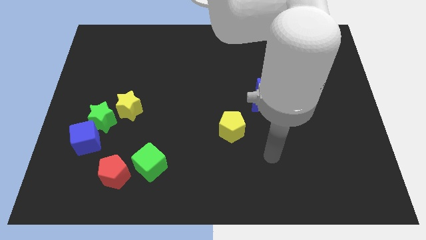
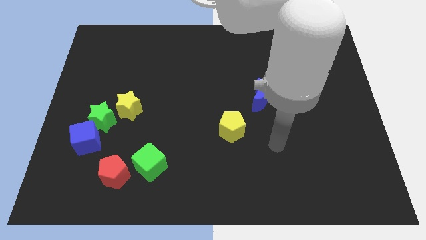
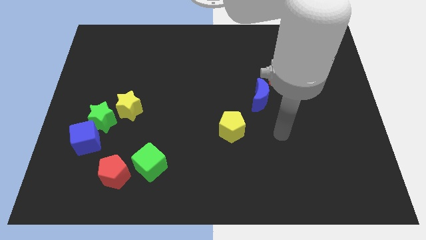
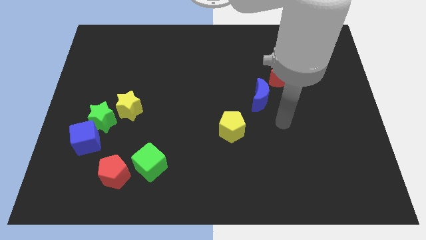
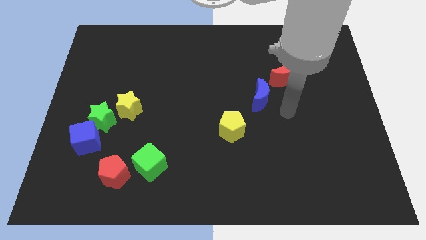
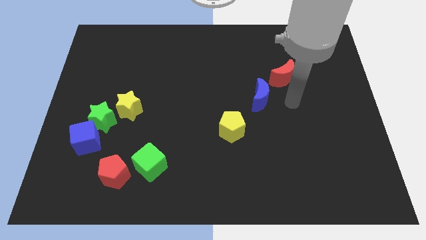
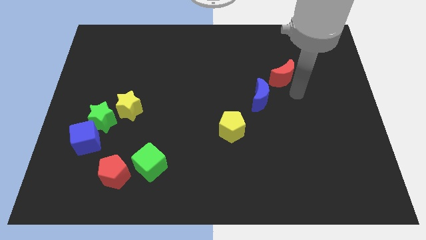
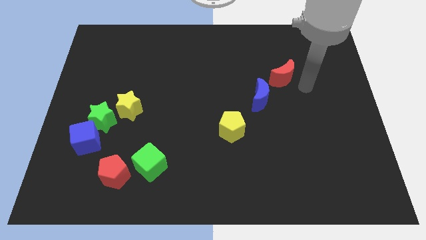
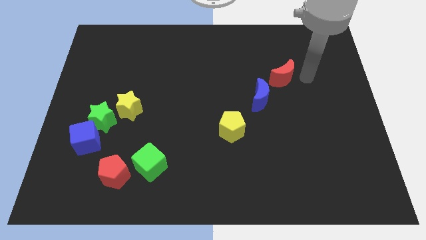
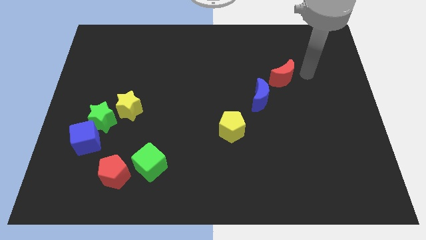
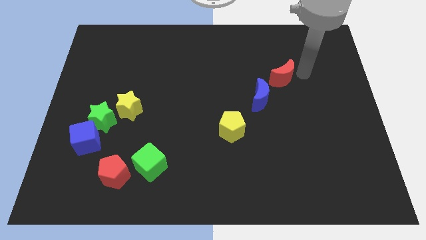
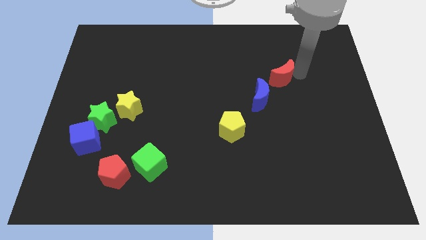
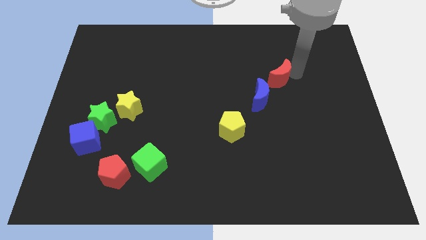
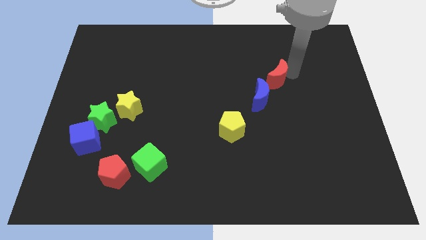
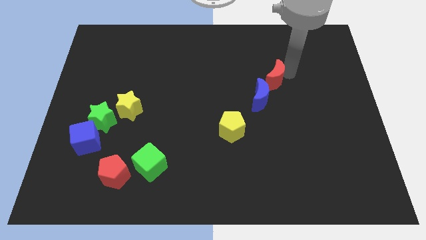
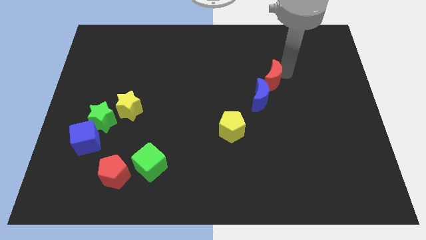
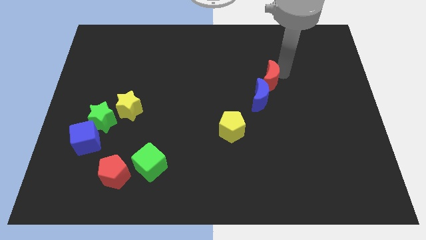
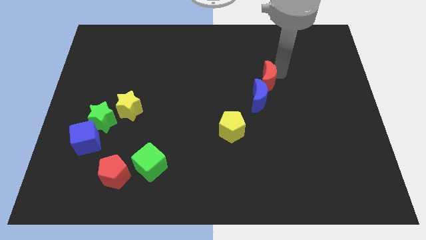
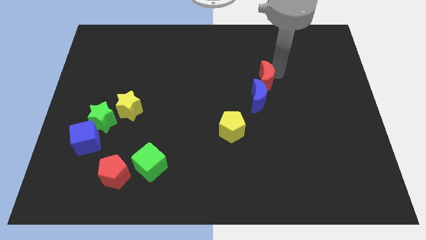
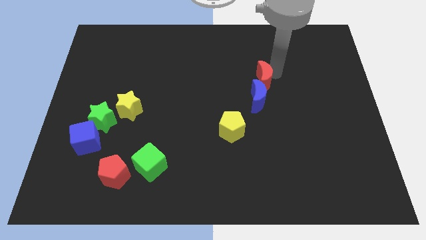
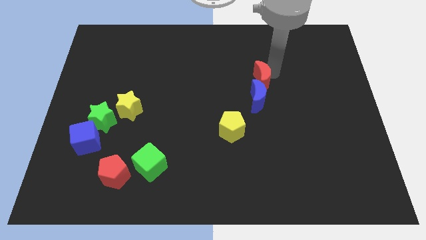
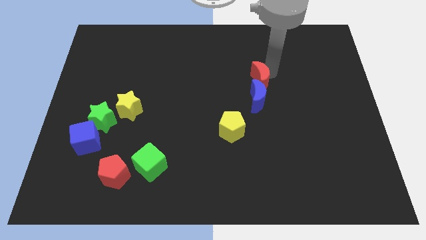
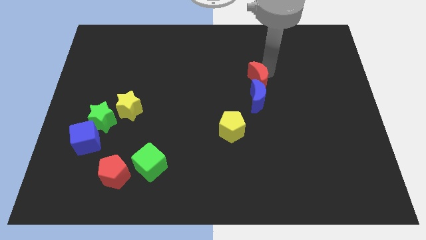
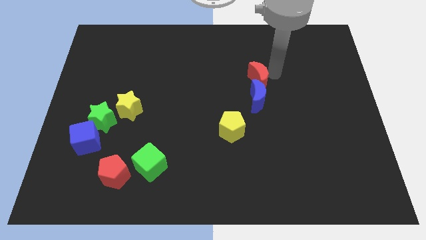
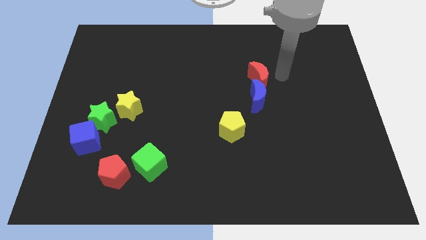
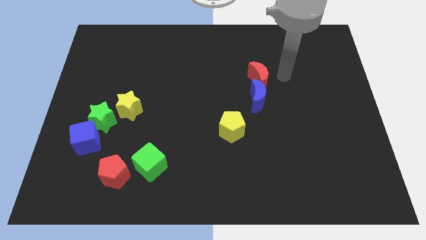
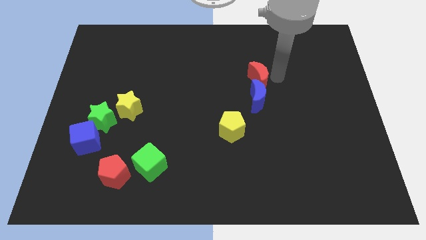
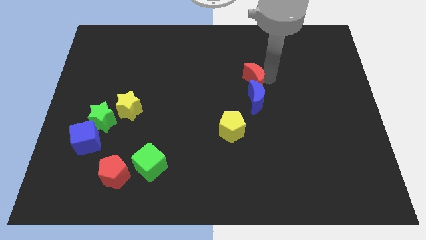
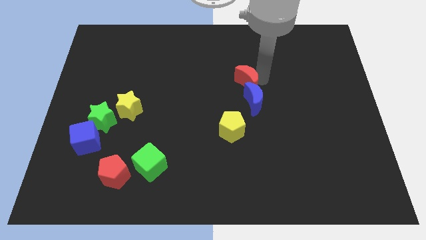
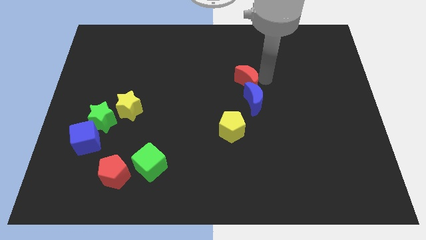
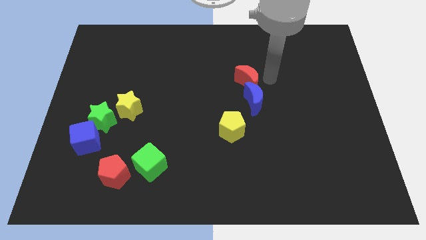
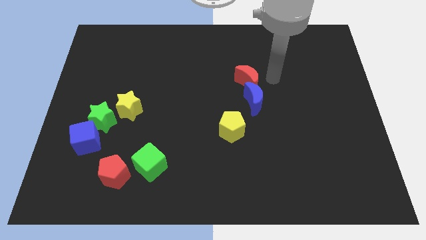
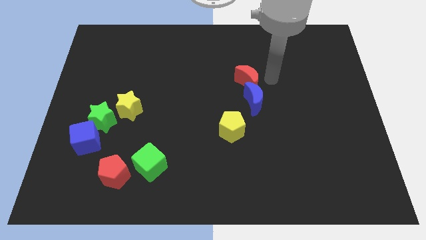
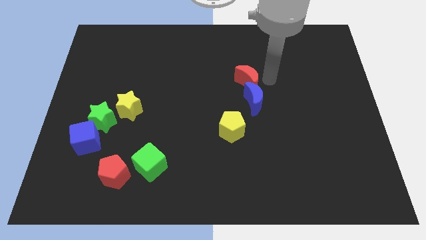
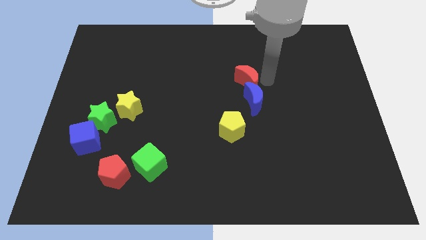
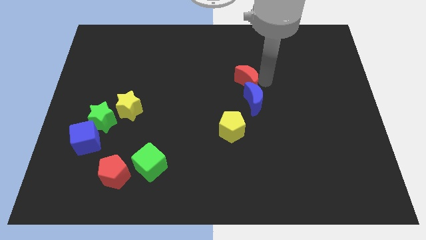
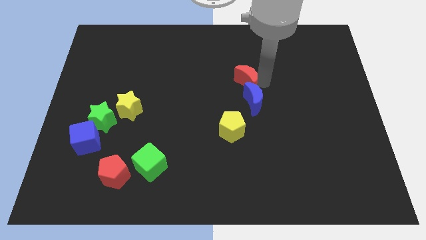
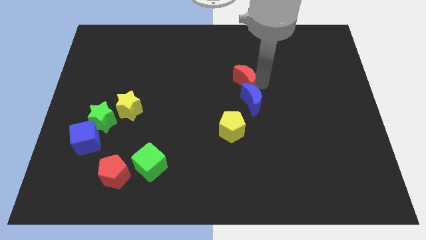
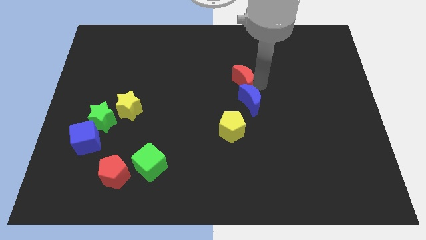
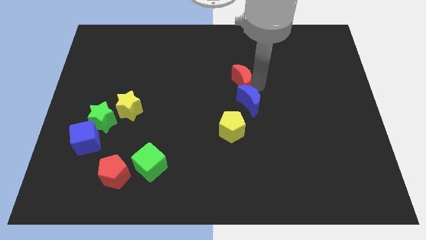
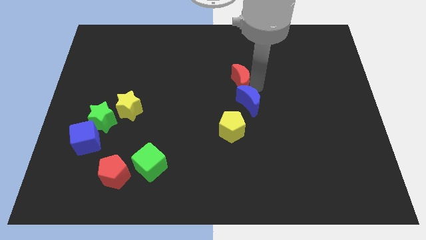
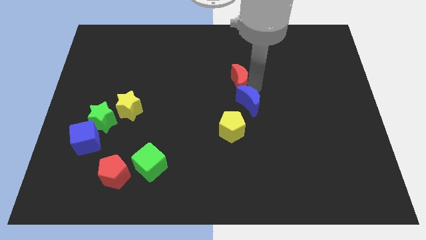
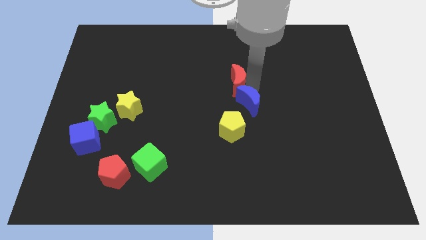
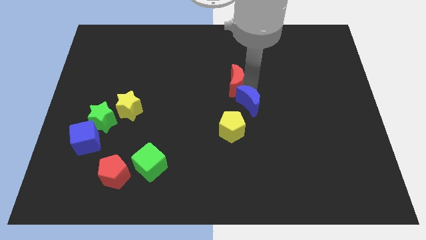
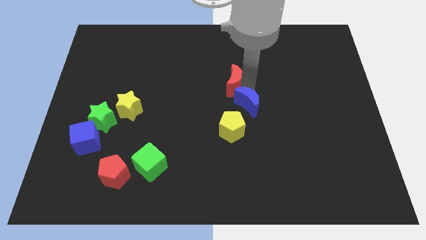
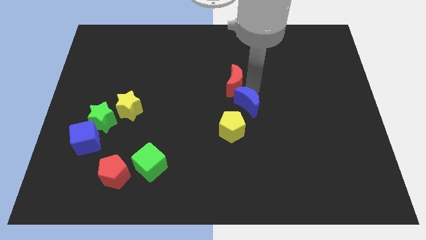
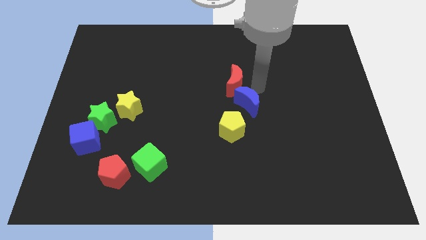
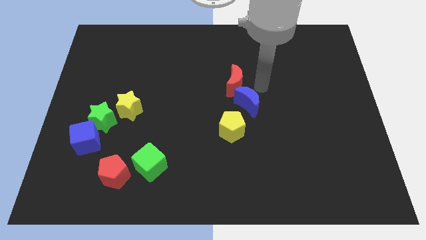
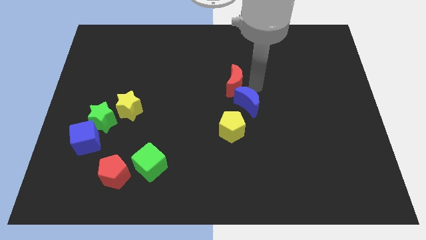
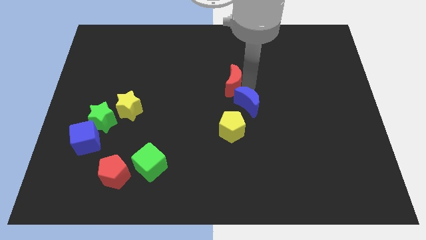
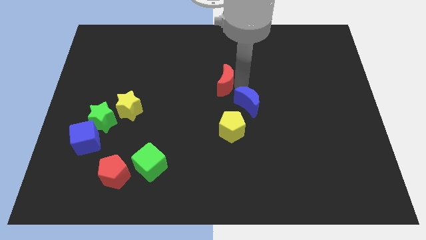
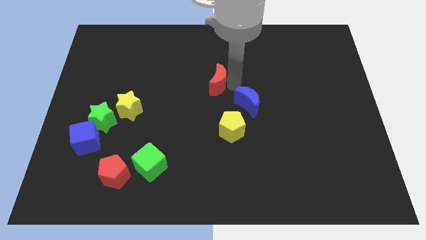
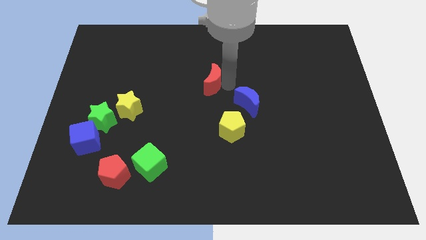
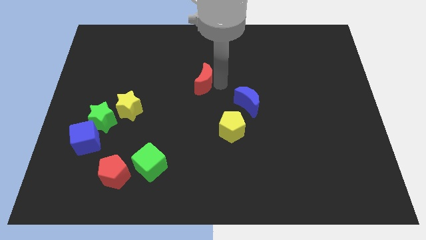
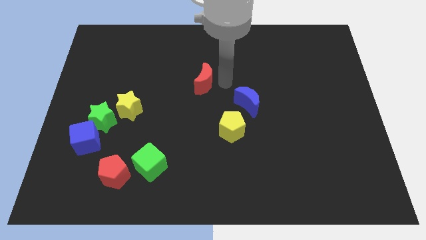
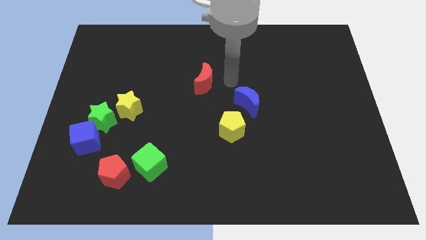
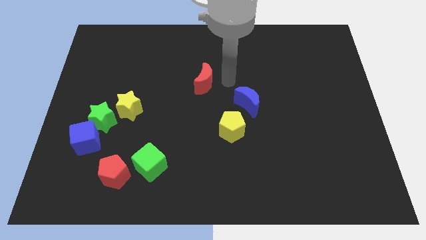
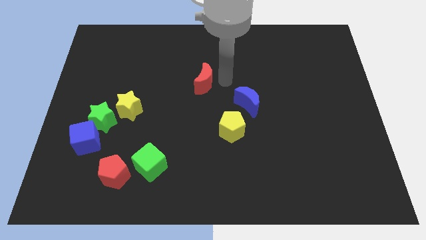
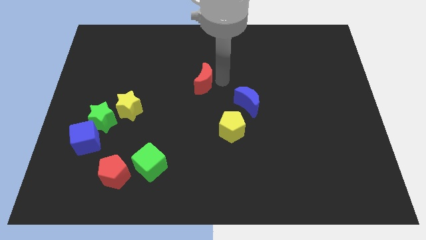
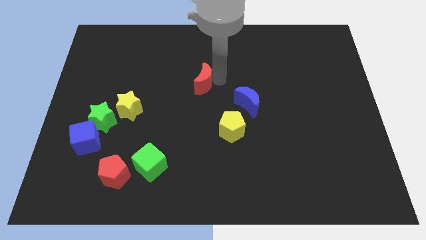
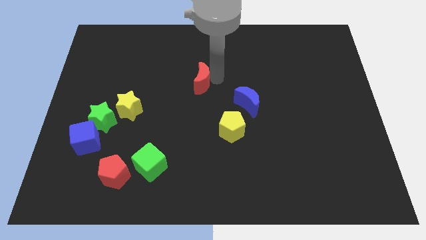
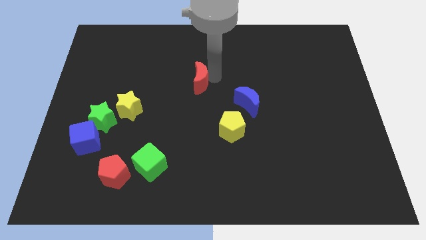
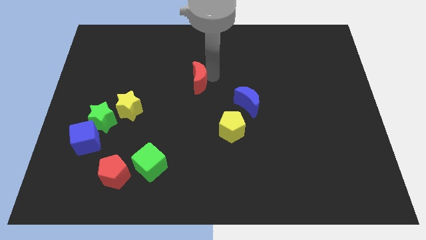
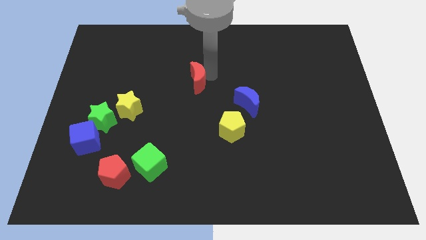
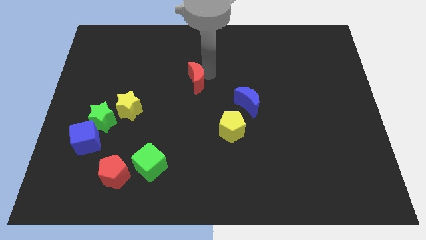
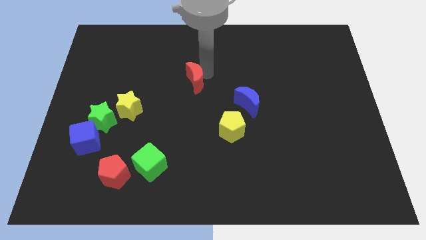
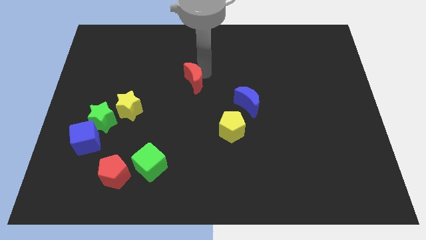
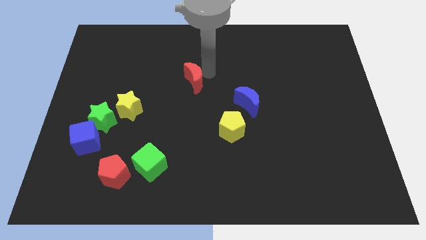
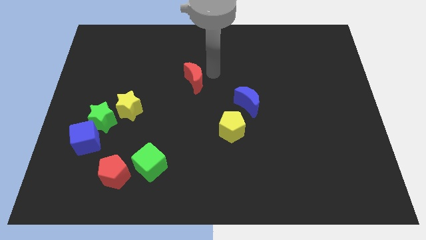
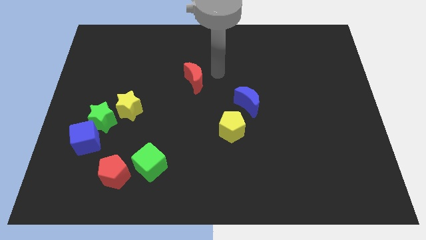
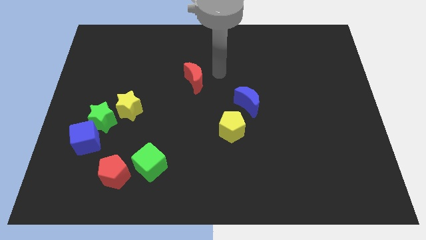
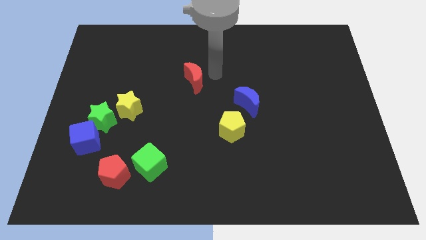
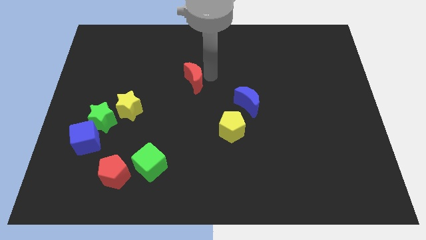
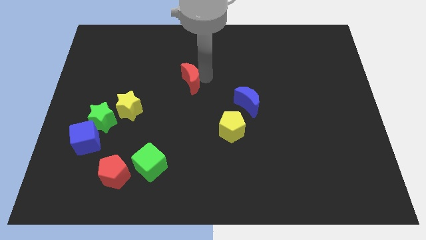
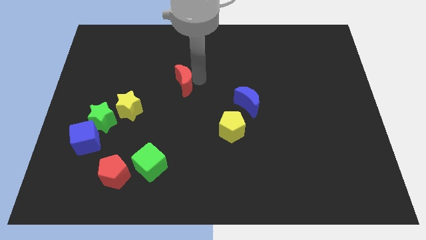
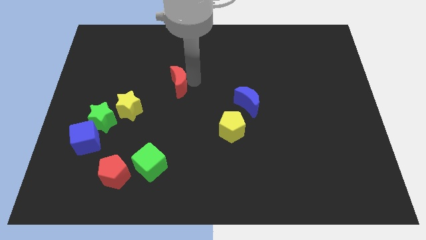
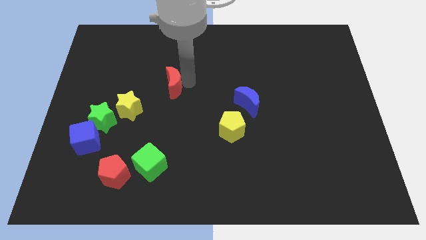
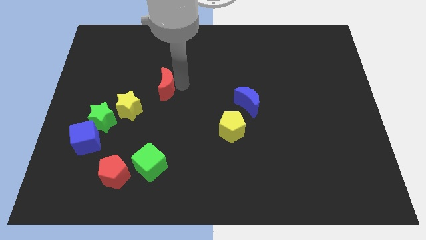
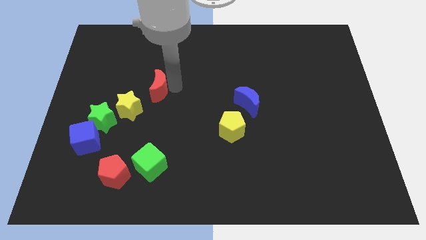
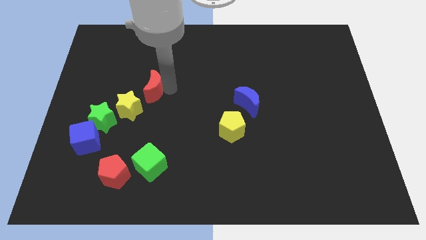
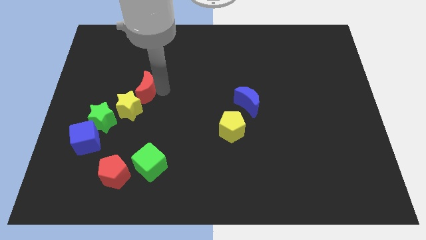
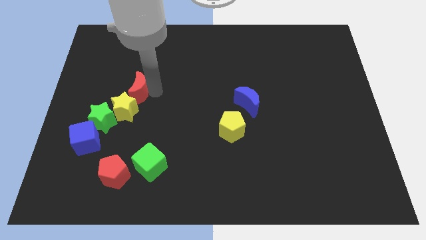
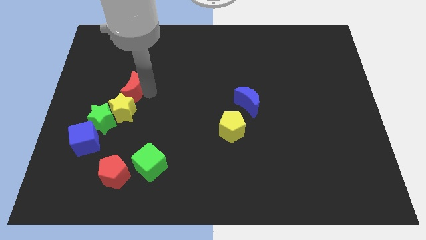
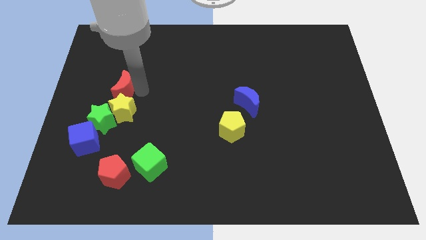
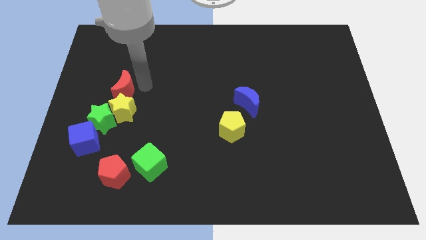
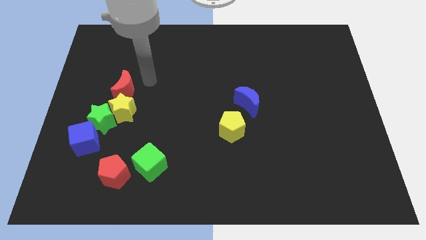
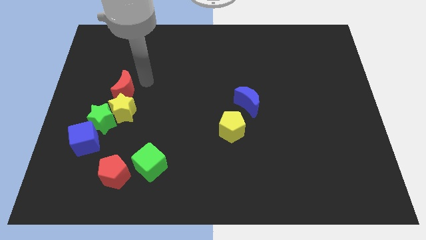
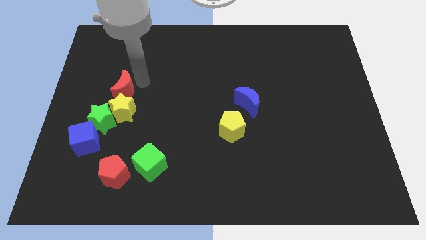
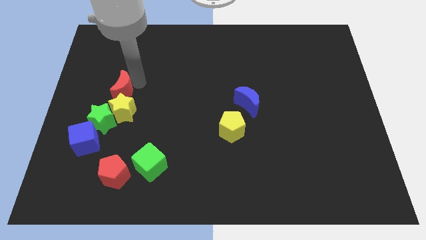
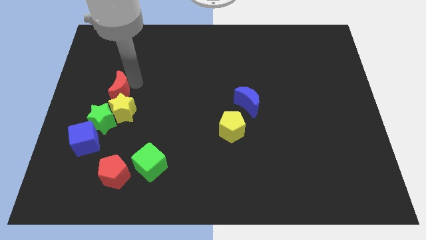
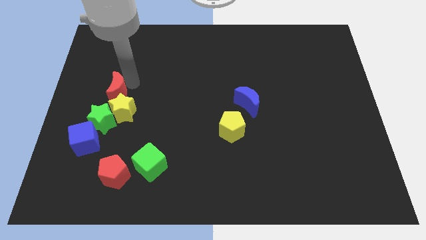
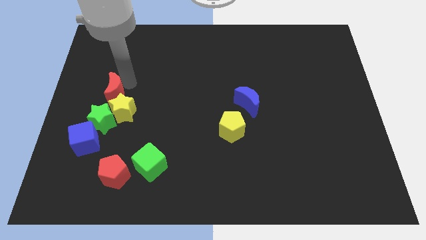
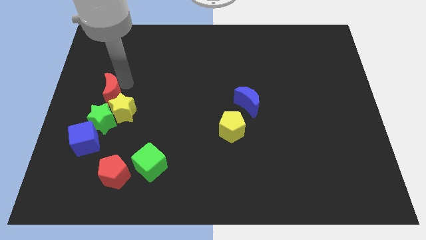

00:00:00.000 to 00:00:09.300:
put the red moon to the top side of the blue cube
